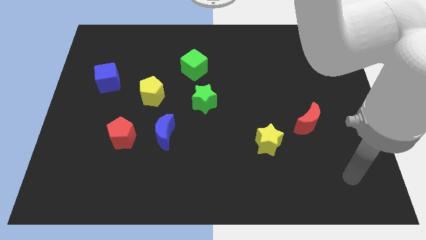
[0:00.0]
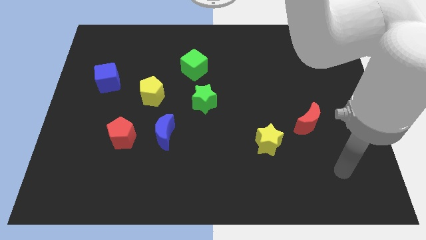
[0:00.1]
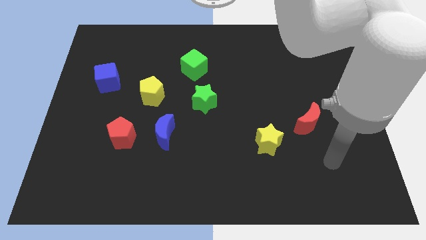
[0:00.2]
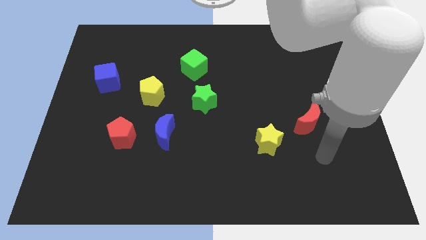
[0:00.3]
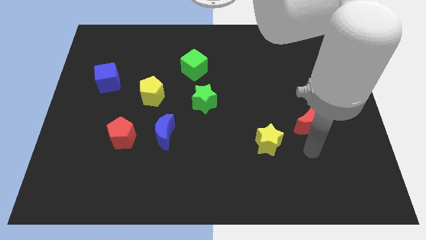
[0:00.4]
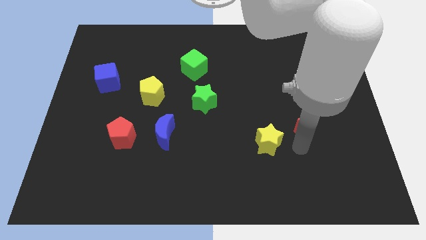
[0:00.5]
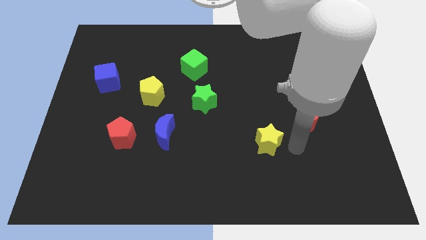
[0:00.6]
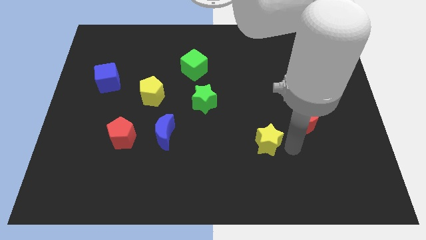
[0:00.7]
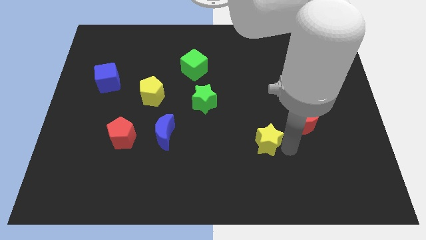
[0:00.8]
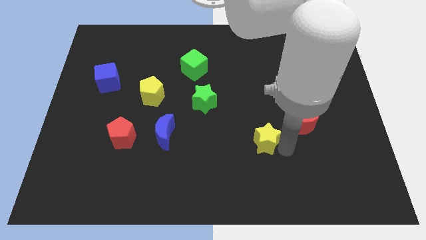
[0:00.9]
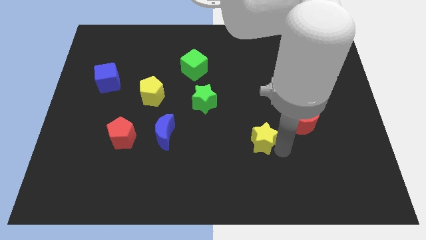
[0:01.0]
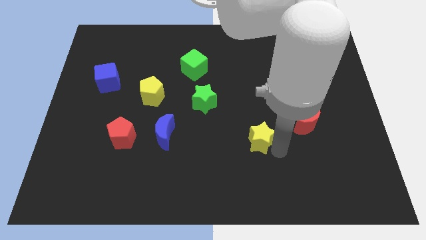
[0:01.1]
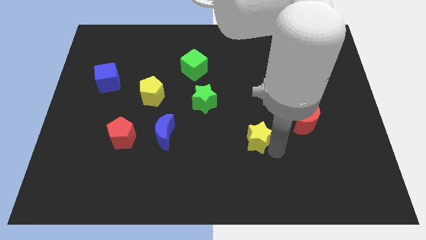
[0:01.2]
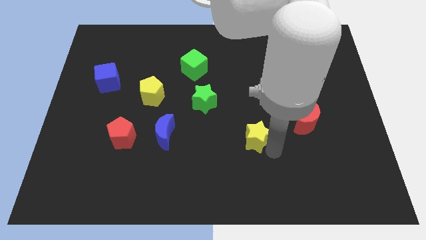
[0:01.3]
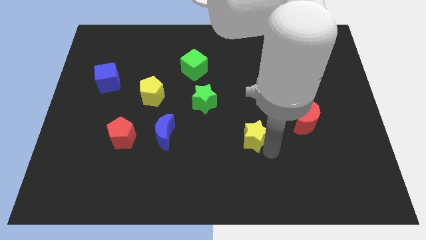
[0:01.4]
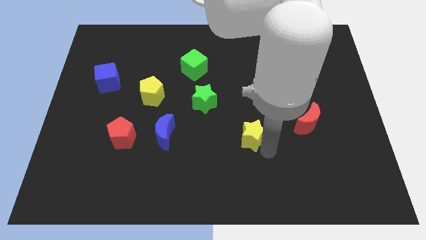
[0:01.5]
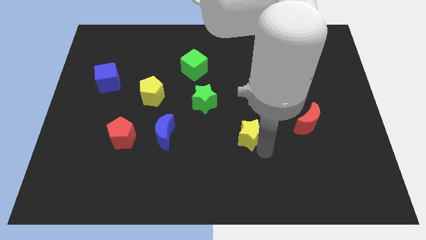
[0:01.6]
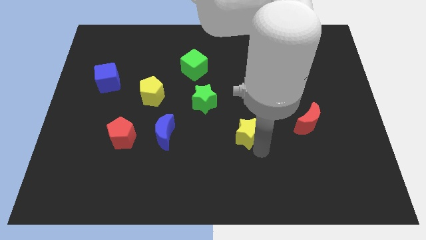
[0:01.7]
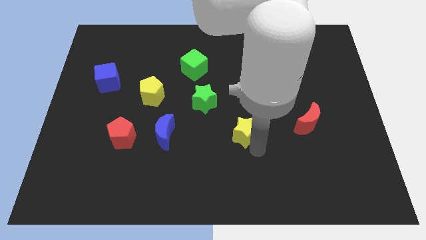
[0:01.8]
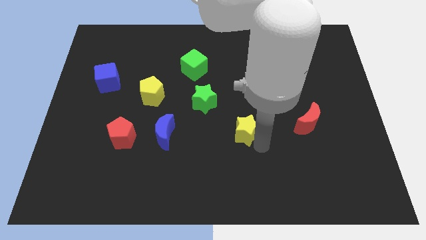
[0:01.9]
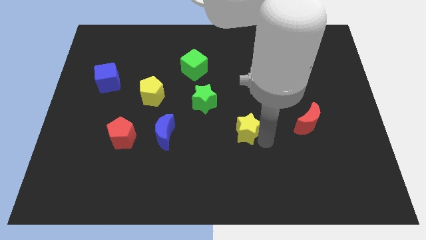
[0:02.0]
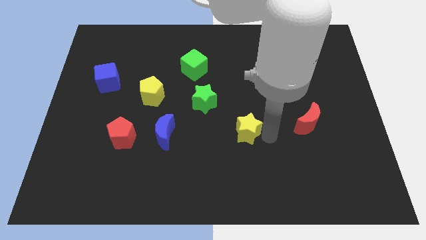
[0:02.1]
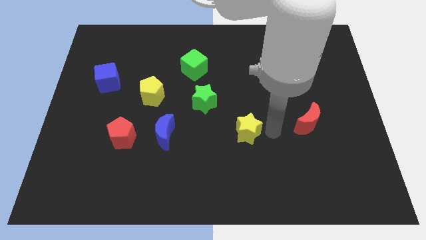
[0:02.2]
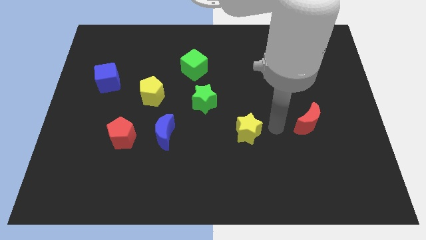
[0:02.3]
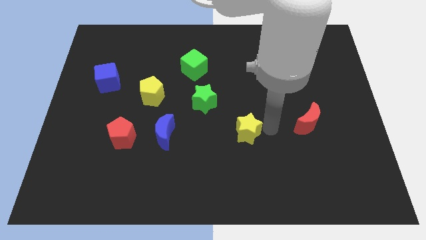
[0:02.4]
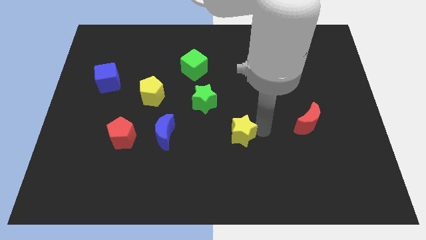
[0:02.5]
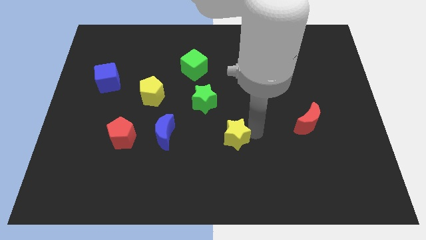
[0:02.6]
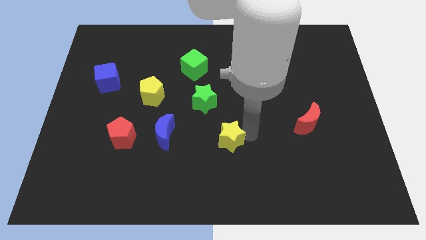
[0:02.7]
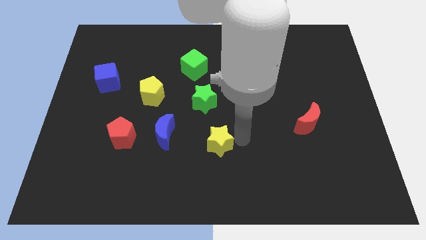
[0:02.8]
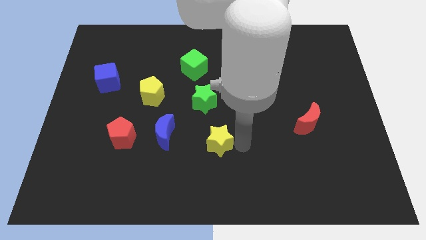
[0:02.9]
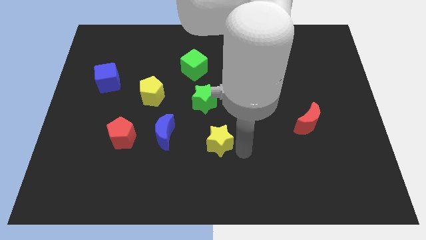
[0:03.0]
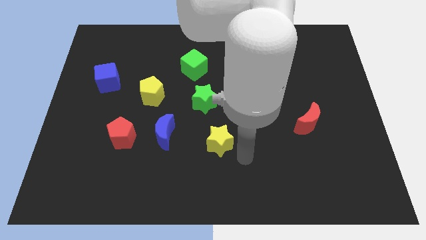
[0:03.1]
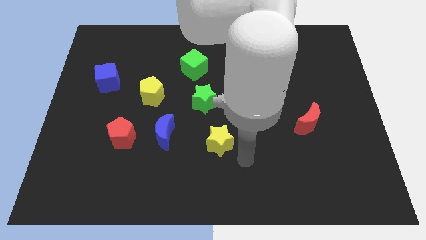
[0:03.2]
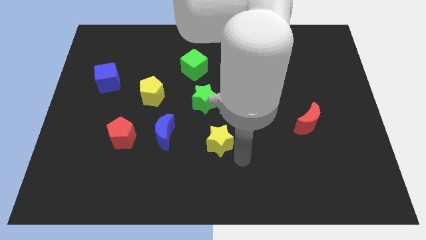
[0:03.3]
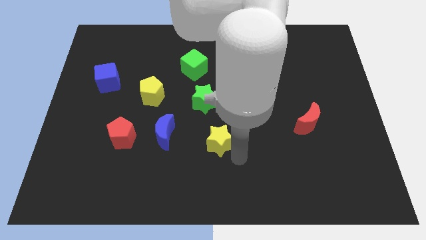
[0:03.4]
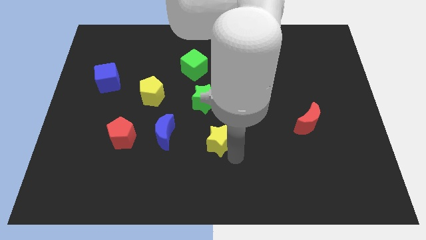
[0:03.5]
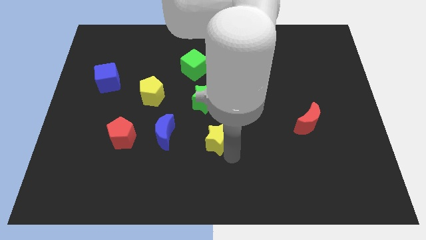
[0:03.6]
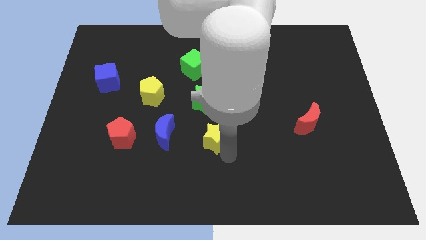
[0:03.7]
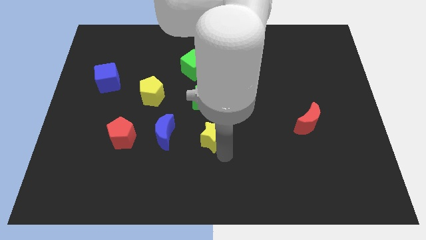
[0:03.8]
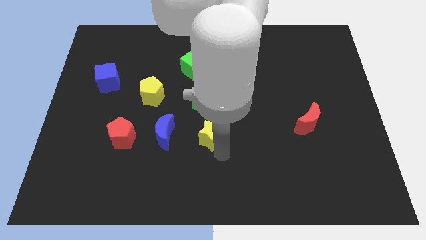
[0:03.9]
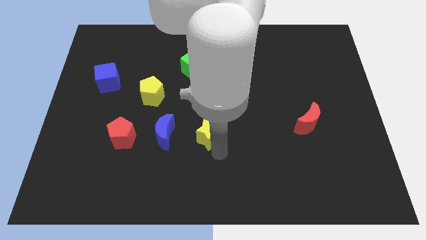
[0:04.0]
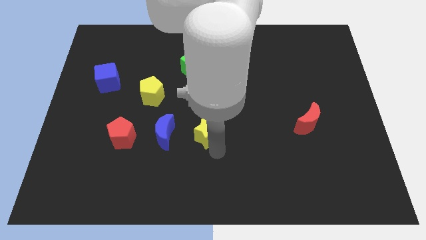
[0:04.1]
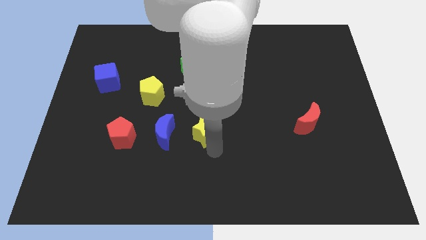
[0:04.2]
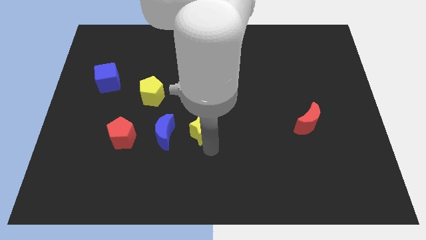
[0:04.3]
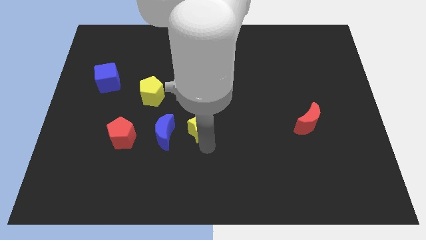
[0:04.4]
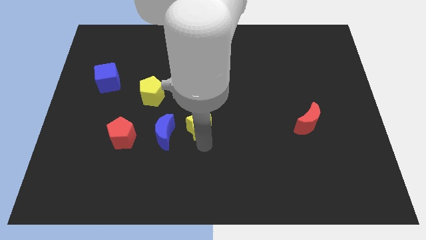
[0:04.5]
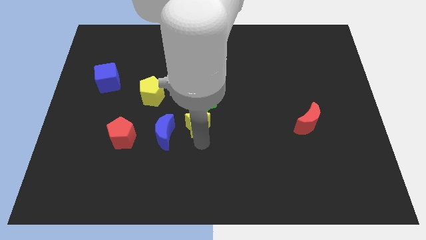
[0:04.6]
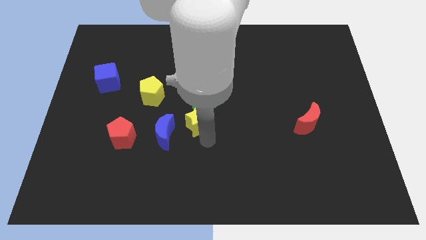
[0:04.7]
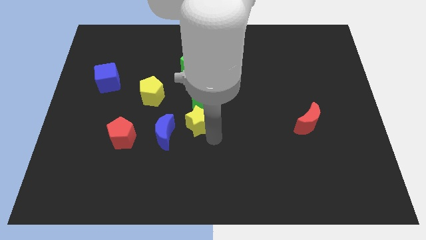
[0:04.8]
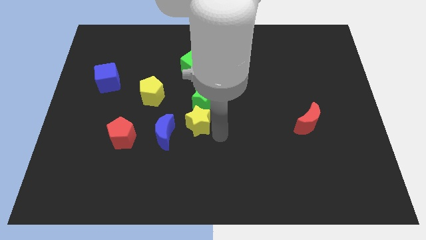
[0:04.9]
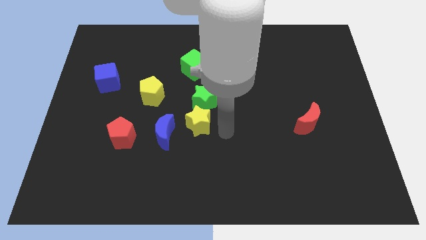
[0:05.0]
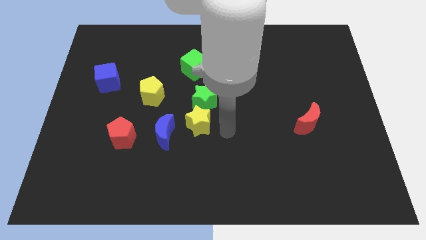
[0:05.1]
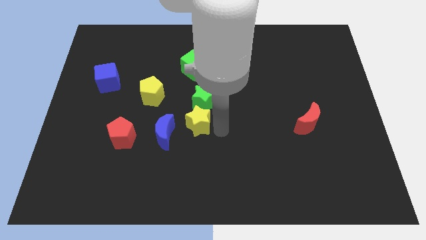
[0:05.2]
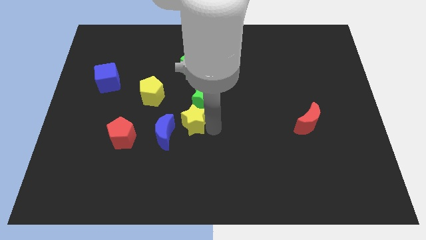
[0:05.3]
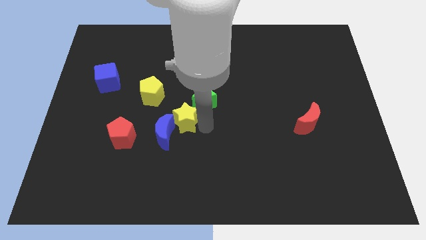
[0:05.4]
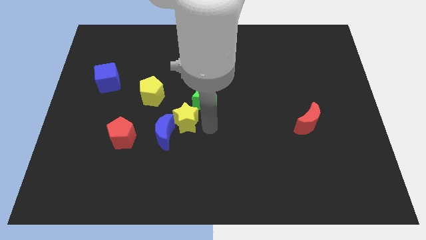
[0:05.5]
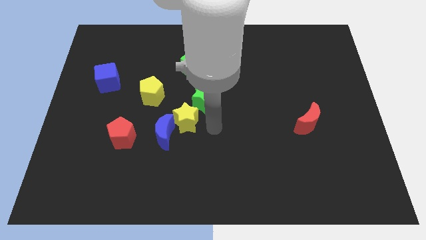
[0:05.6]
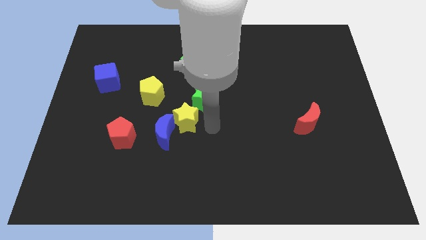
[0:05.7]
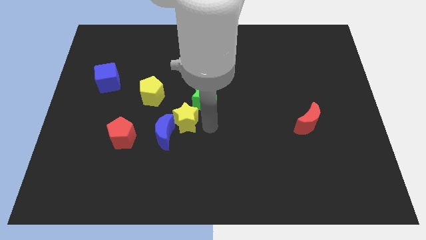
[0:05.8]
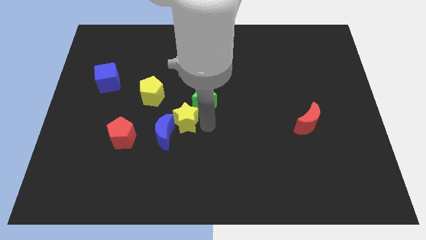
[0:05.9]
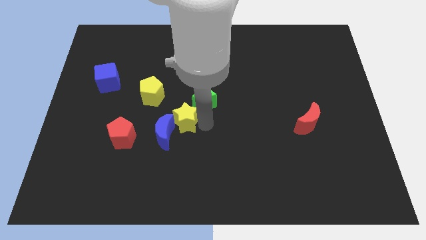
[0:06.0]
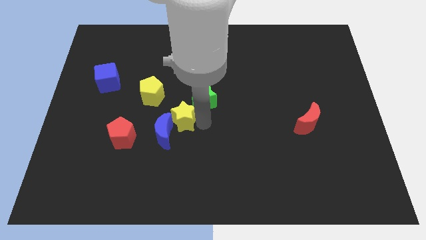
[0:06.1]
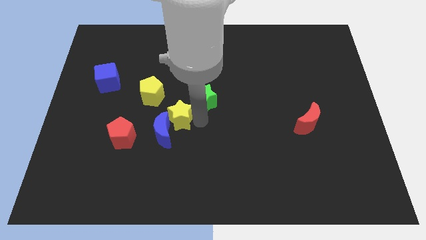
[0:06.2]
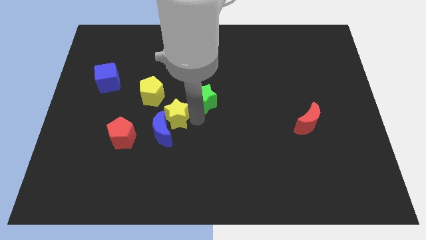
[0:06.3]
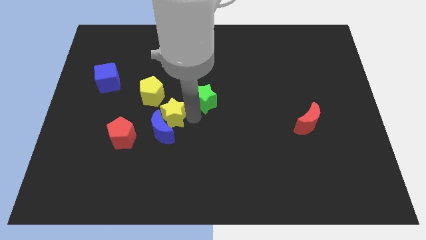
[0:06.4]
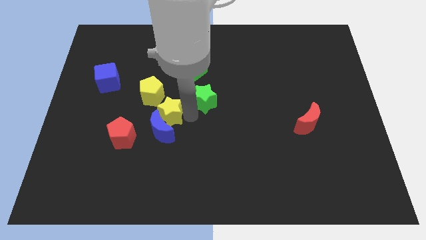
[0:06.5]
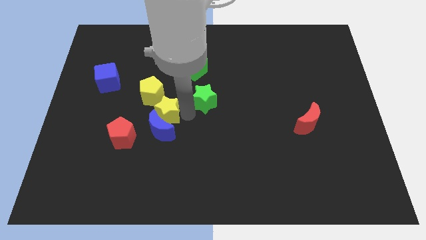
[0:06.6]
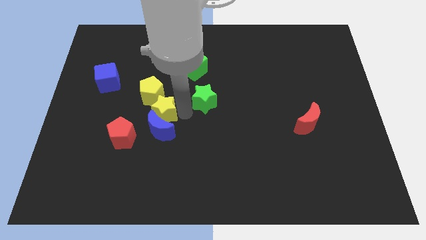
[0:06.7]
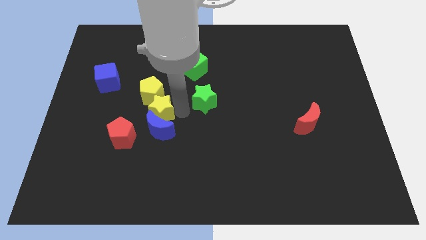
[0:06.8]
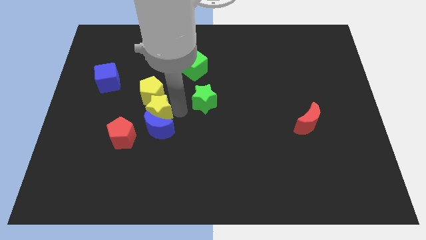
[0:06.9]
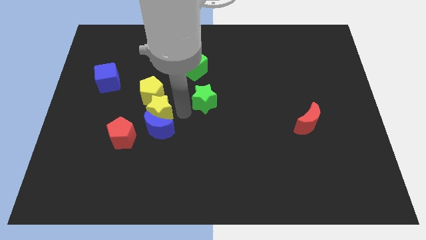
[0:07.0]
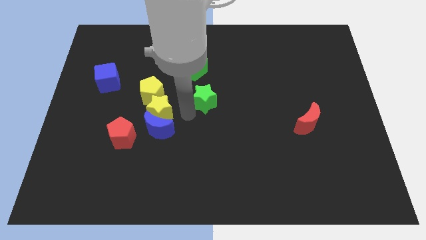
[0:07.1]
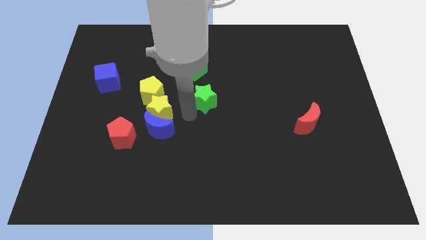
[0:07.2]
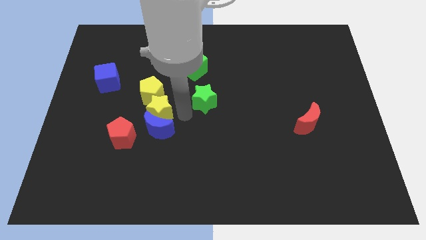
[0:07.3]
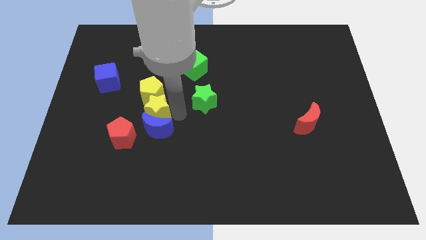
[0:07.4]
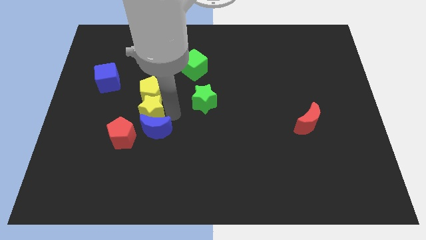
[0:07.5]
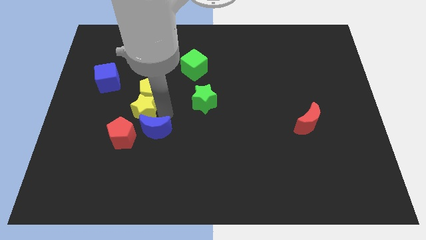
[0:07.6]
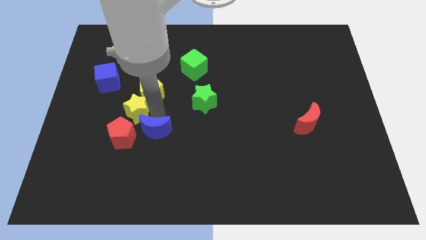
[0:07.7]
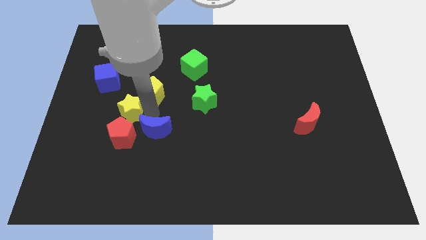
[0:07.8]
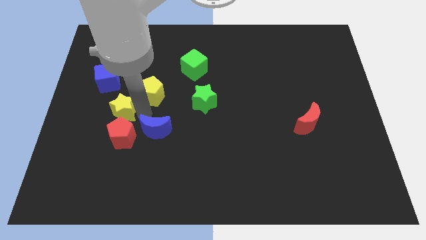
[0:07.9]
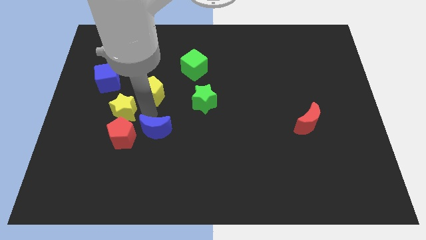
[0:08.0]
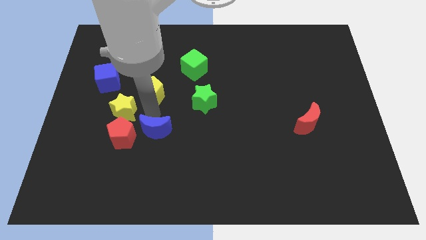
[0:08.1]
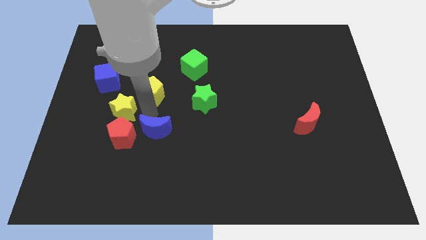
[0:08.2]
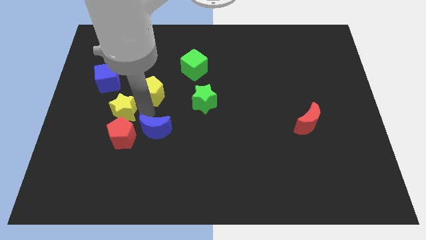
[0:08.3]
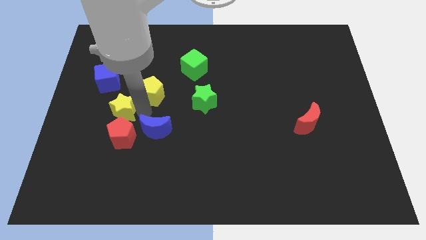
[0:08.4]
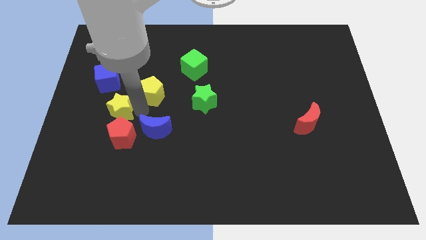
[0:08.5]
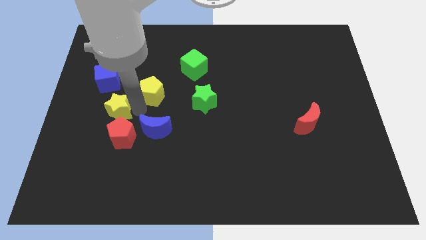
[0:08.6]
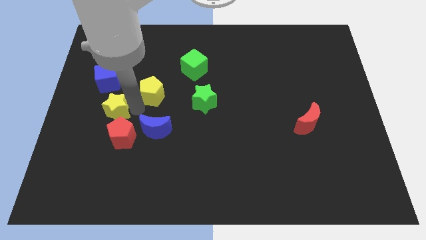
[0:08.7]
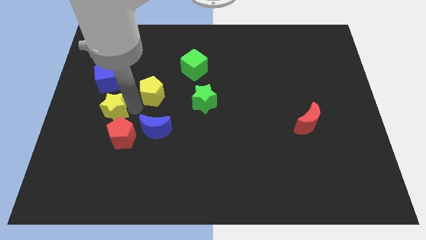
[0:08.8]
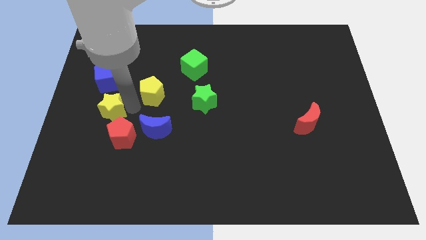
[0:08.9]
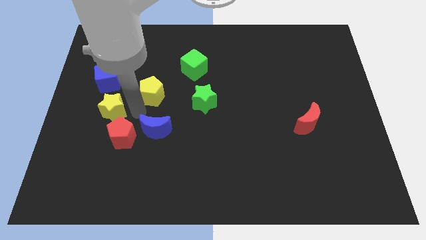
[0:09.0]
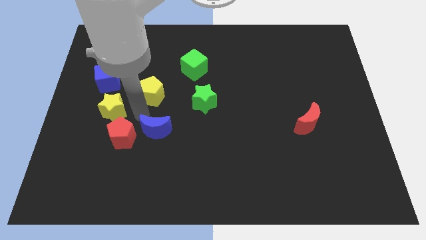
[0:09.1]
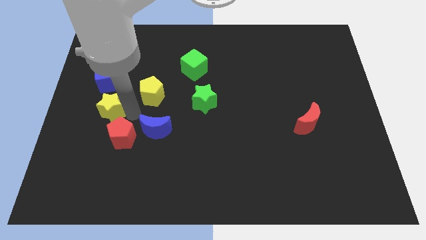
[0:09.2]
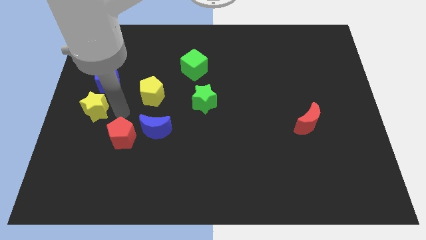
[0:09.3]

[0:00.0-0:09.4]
put the yellow star to the center left
